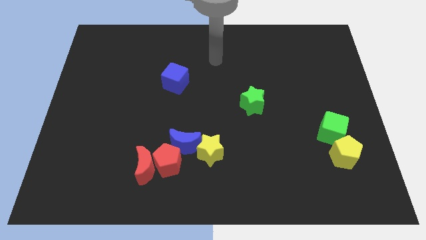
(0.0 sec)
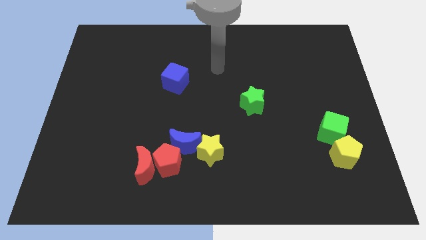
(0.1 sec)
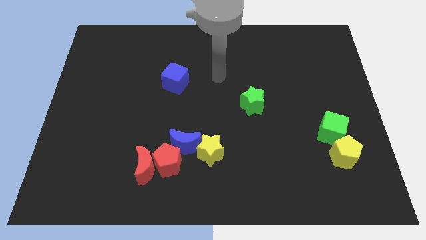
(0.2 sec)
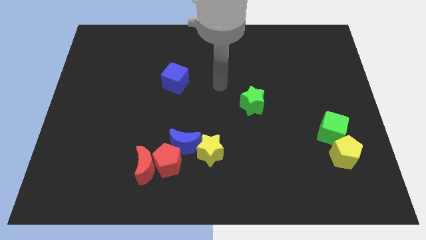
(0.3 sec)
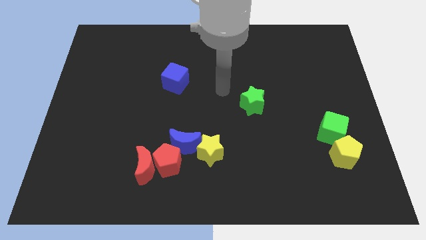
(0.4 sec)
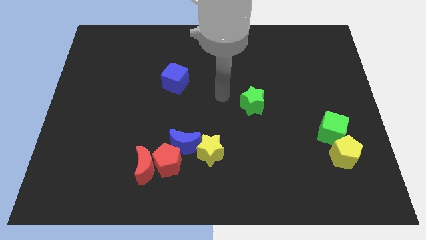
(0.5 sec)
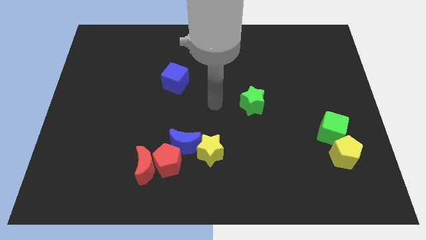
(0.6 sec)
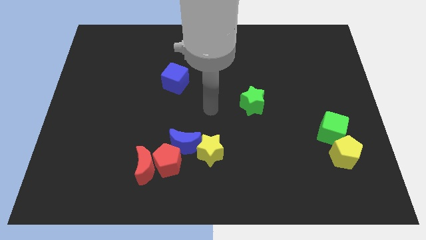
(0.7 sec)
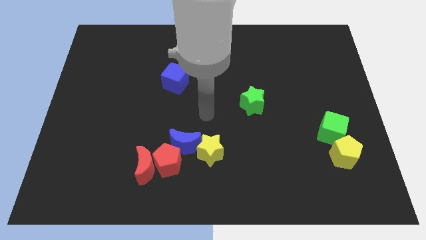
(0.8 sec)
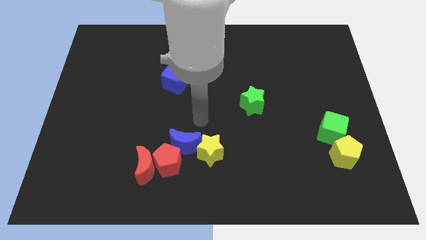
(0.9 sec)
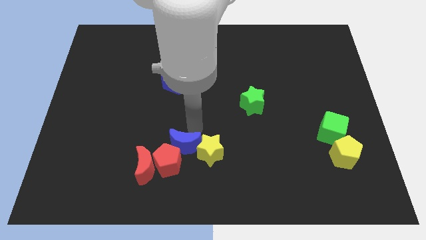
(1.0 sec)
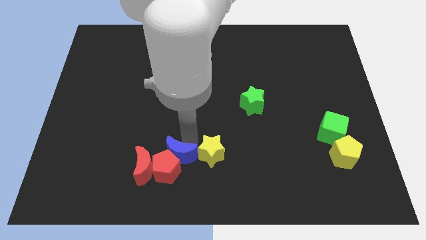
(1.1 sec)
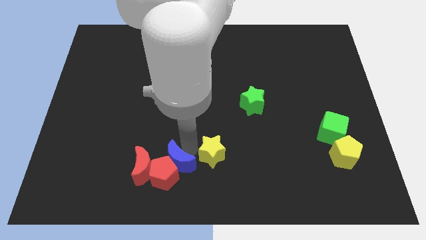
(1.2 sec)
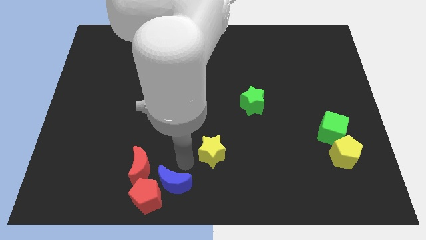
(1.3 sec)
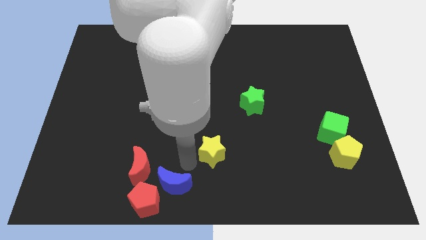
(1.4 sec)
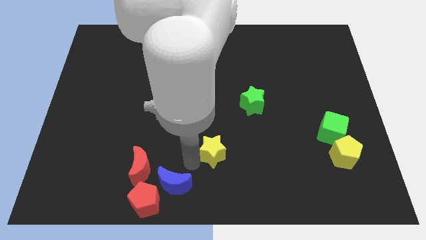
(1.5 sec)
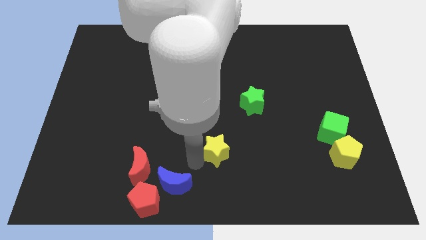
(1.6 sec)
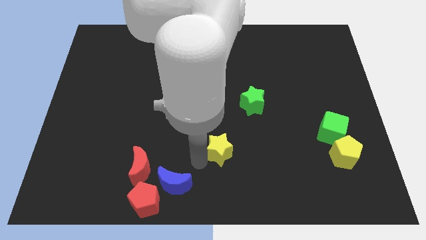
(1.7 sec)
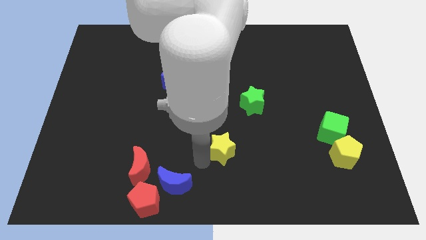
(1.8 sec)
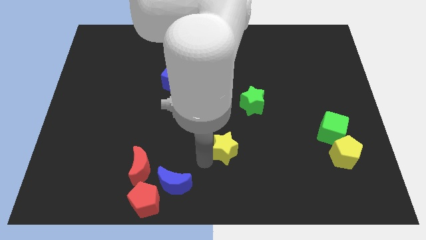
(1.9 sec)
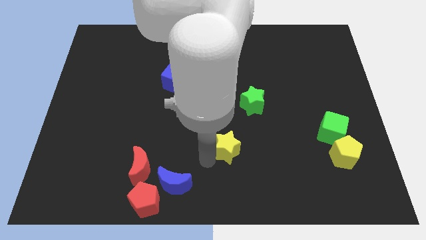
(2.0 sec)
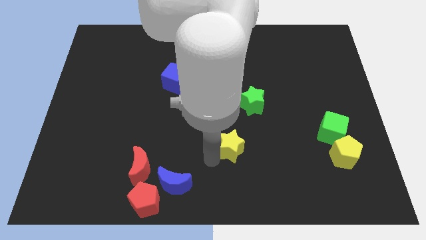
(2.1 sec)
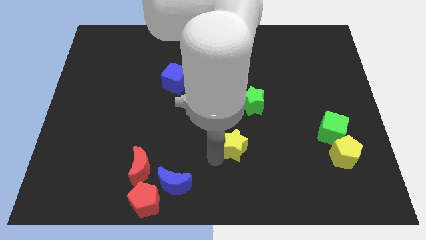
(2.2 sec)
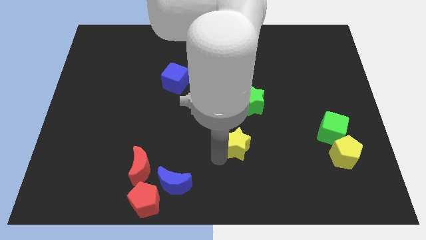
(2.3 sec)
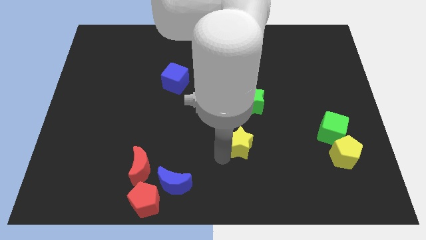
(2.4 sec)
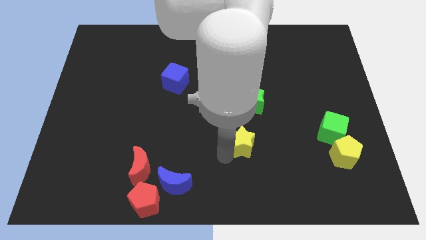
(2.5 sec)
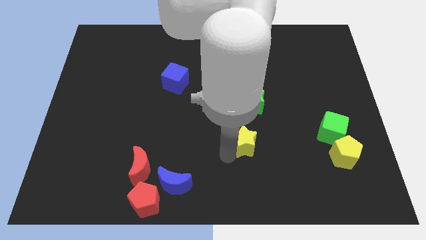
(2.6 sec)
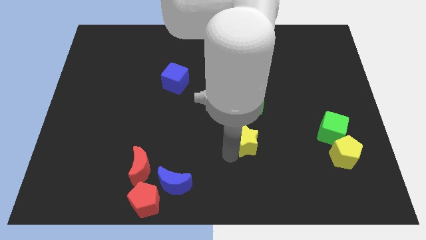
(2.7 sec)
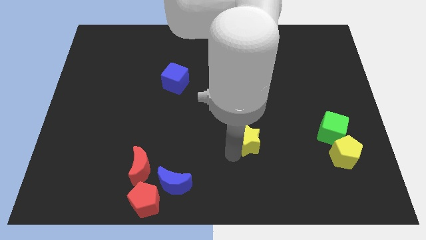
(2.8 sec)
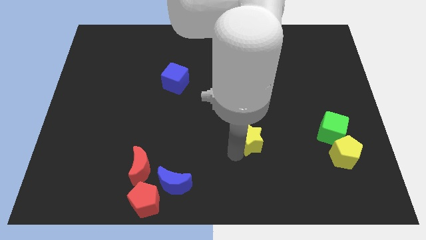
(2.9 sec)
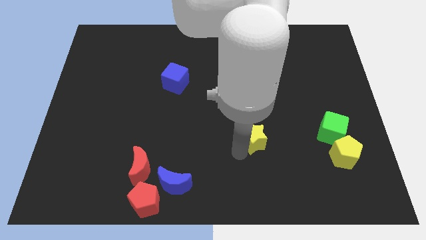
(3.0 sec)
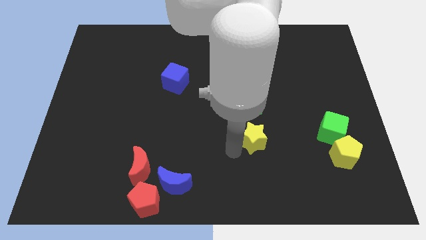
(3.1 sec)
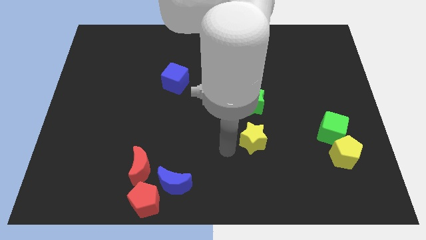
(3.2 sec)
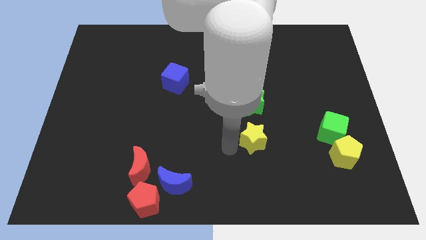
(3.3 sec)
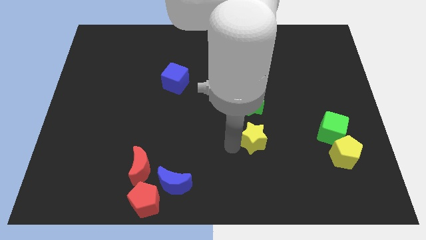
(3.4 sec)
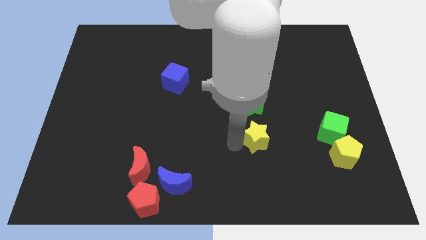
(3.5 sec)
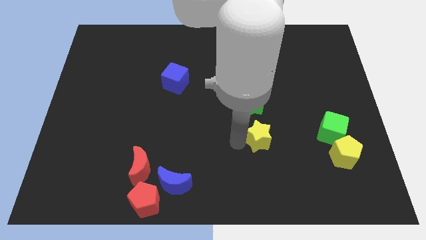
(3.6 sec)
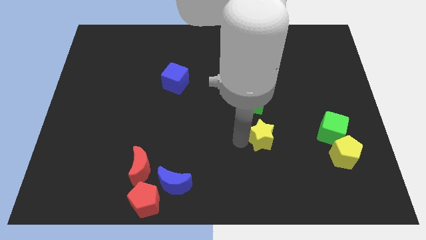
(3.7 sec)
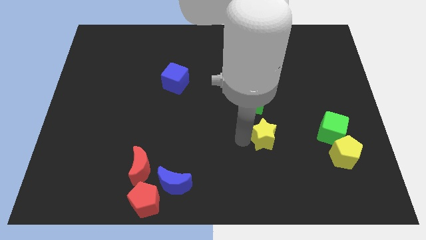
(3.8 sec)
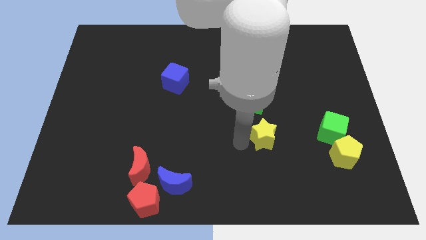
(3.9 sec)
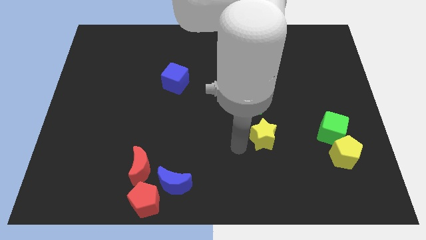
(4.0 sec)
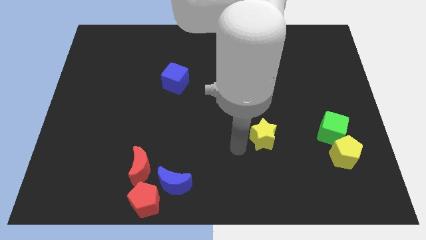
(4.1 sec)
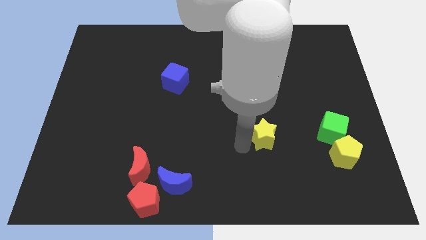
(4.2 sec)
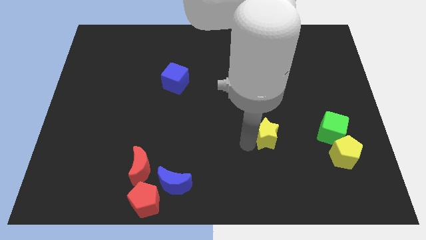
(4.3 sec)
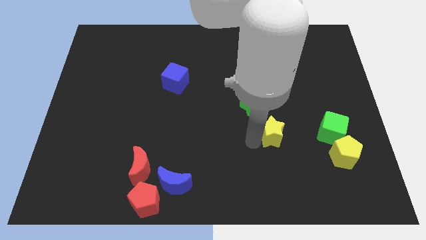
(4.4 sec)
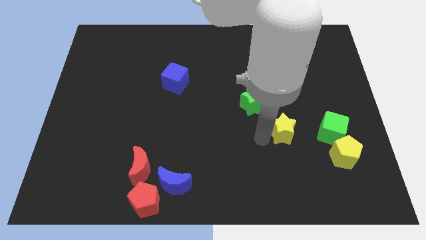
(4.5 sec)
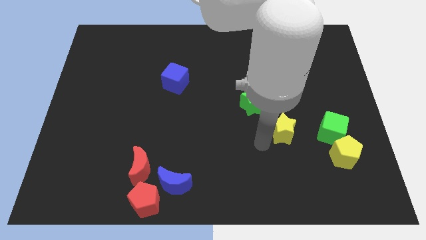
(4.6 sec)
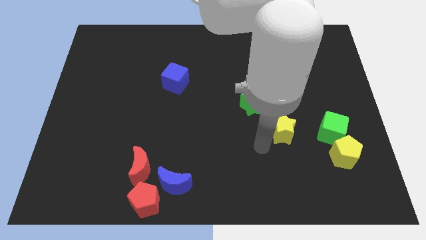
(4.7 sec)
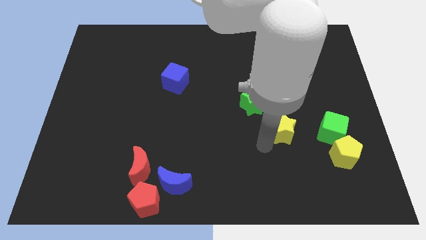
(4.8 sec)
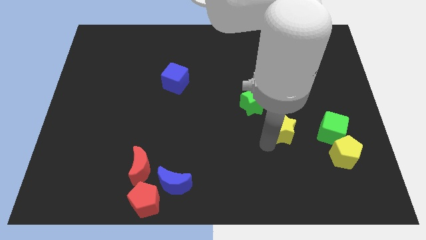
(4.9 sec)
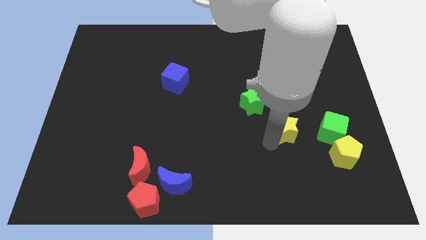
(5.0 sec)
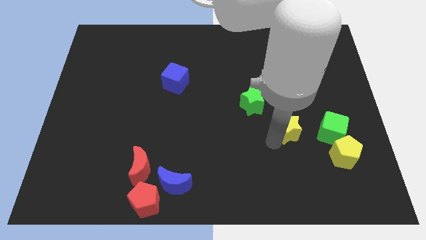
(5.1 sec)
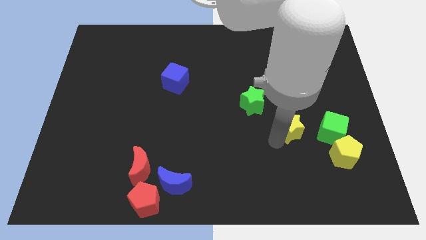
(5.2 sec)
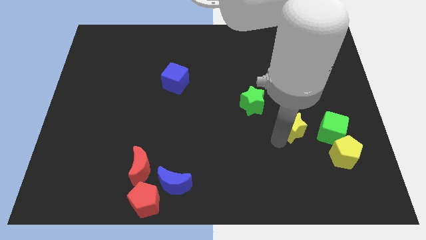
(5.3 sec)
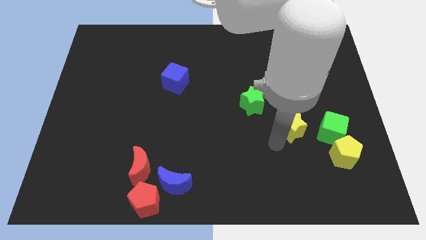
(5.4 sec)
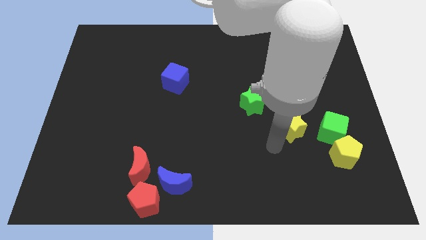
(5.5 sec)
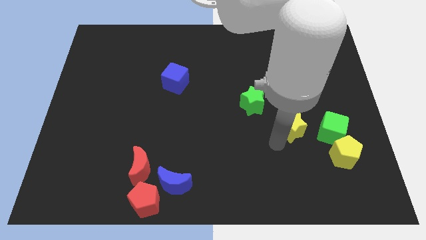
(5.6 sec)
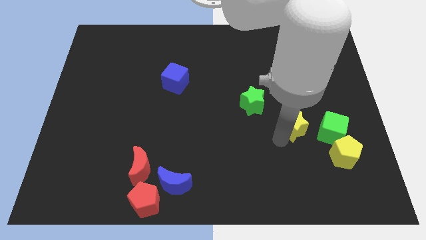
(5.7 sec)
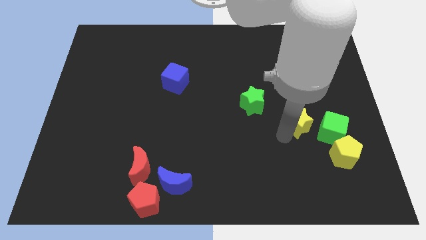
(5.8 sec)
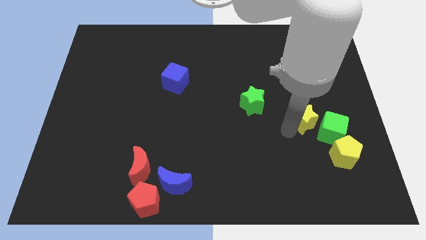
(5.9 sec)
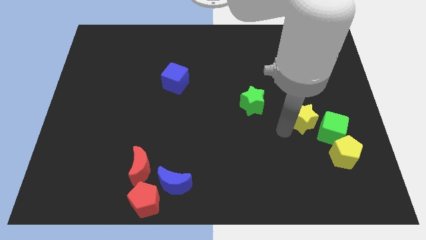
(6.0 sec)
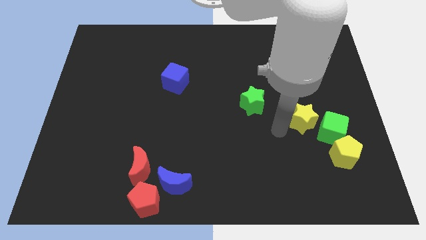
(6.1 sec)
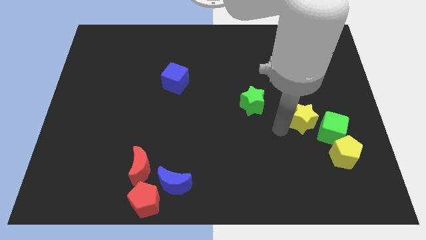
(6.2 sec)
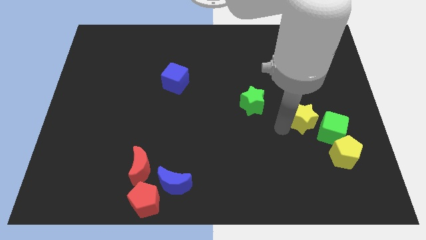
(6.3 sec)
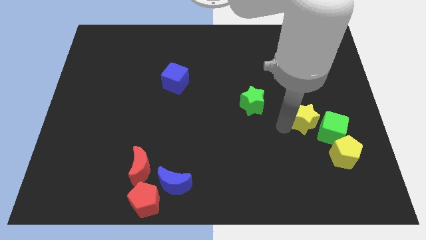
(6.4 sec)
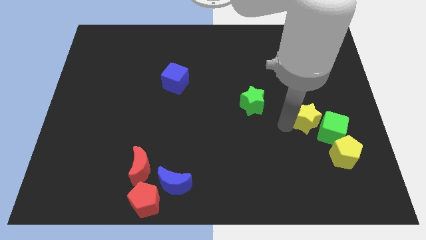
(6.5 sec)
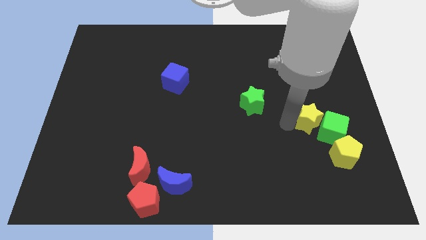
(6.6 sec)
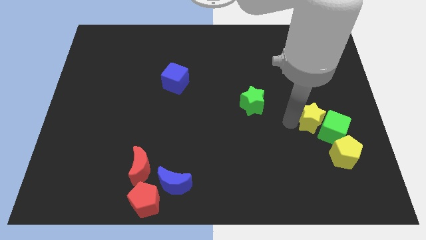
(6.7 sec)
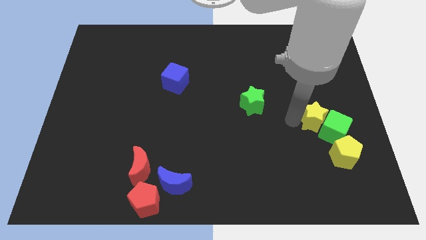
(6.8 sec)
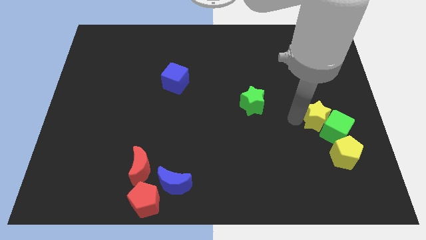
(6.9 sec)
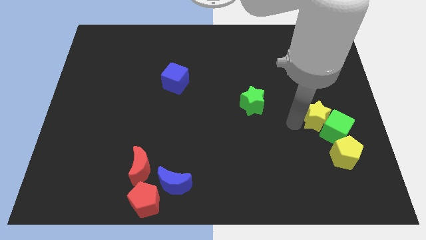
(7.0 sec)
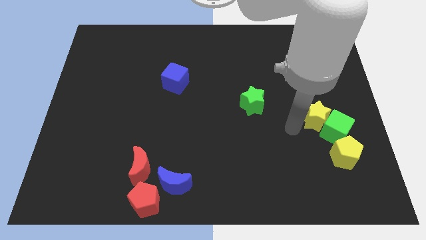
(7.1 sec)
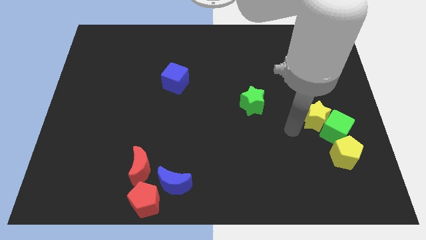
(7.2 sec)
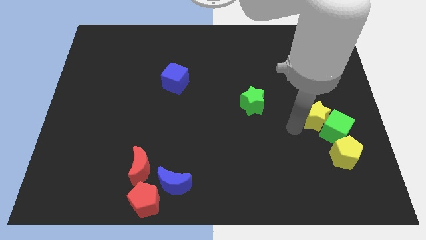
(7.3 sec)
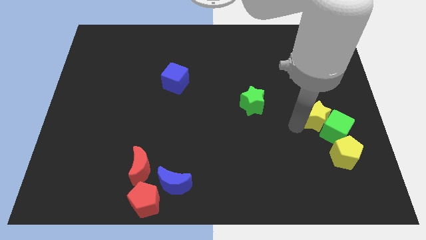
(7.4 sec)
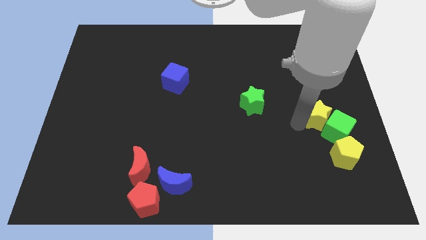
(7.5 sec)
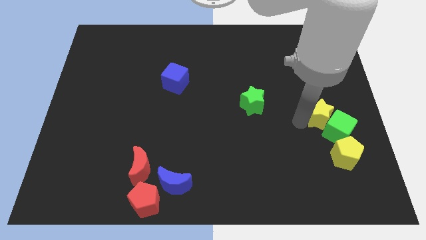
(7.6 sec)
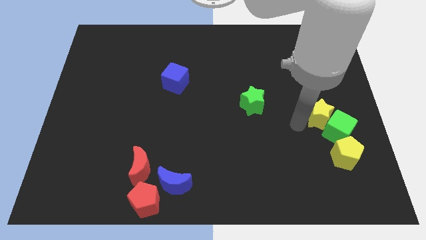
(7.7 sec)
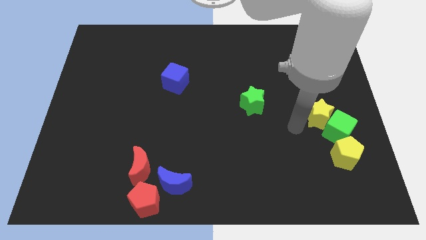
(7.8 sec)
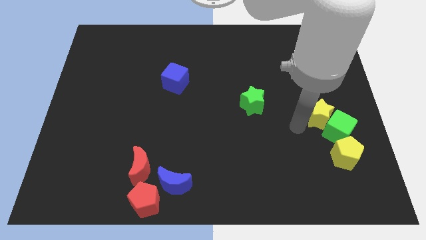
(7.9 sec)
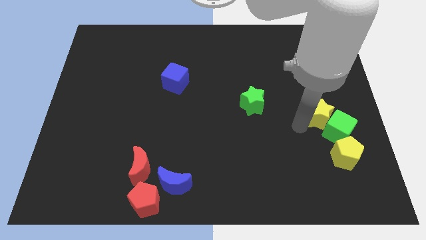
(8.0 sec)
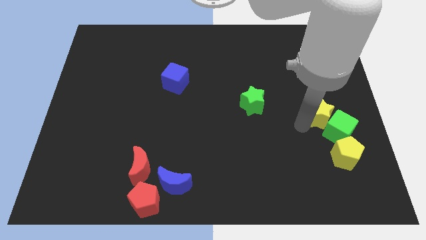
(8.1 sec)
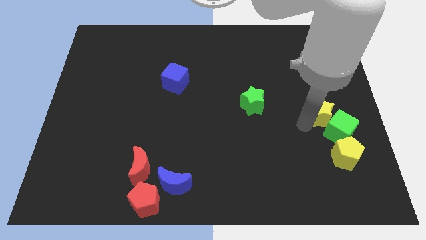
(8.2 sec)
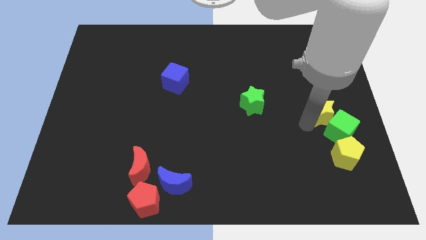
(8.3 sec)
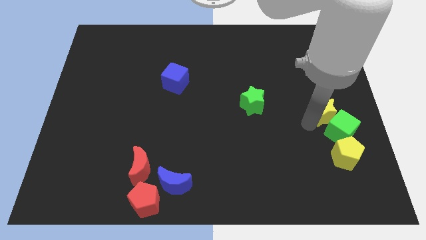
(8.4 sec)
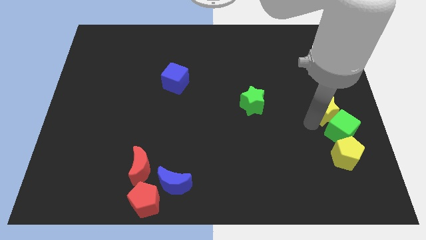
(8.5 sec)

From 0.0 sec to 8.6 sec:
slide the yellow star to the right side of the board
